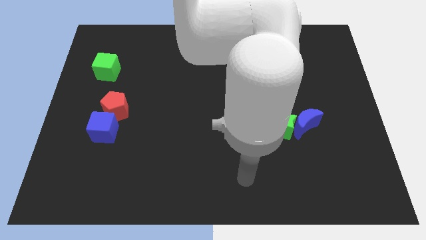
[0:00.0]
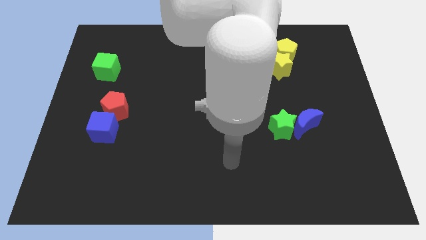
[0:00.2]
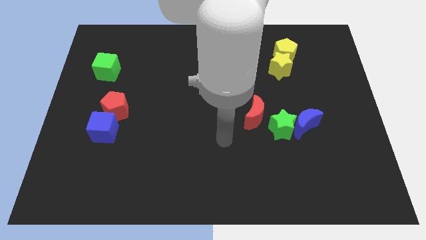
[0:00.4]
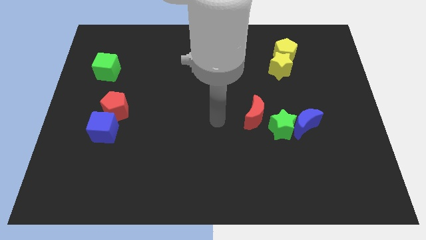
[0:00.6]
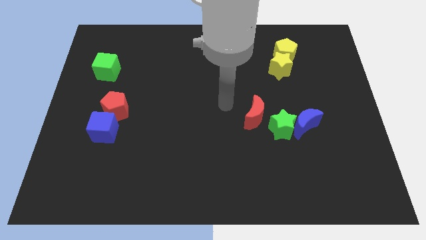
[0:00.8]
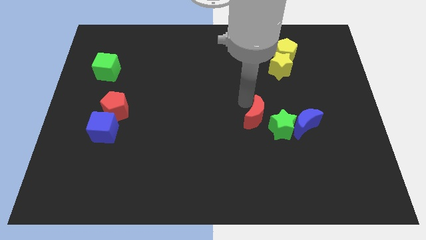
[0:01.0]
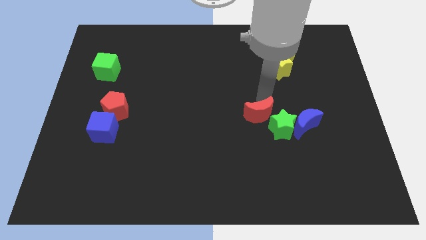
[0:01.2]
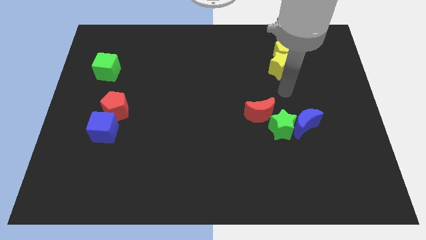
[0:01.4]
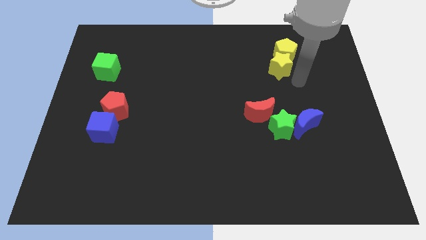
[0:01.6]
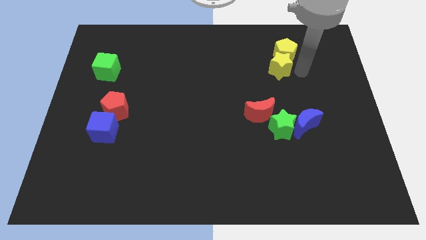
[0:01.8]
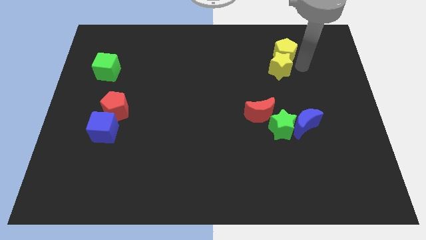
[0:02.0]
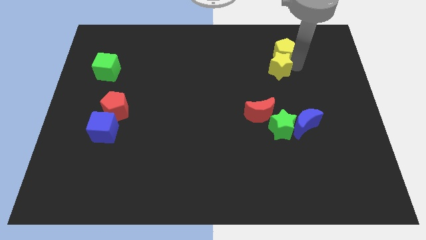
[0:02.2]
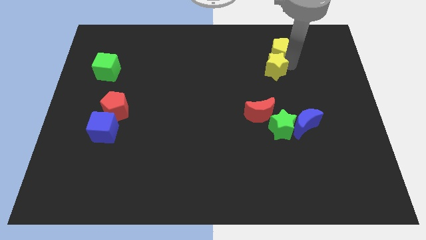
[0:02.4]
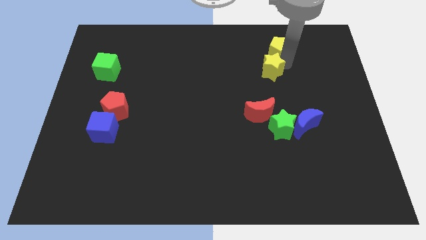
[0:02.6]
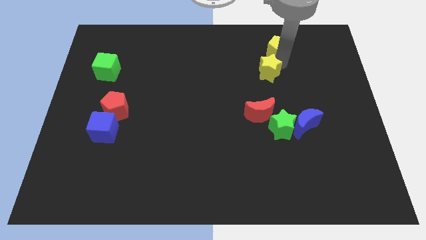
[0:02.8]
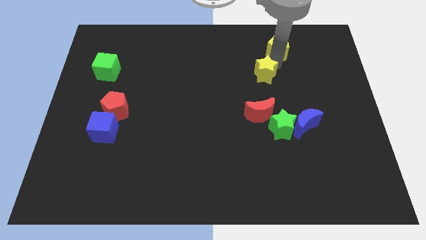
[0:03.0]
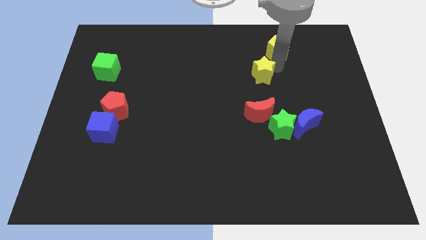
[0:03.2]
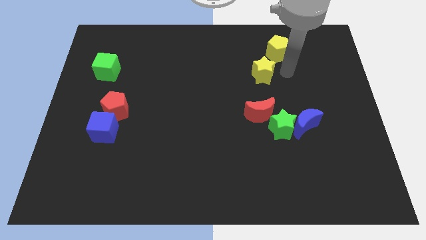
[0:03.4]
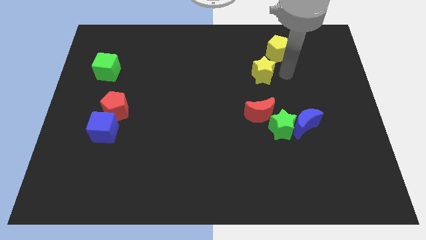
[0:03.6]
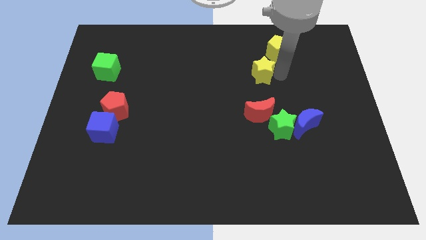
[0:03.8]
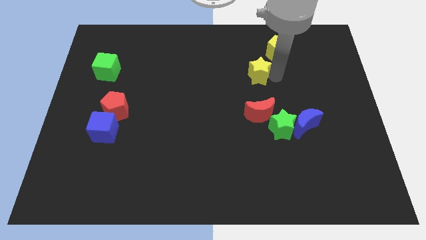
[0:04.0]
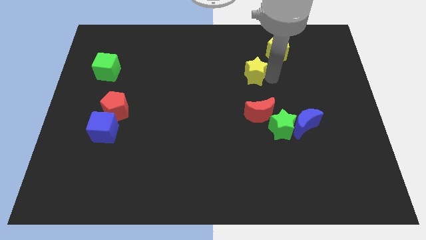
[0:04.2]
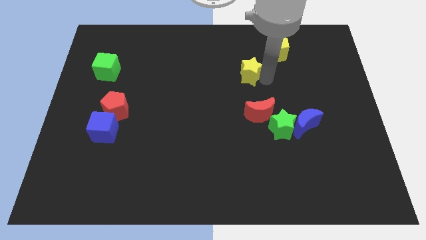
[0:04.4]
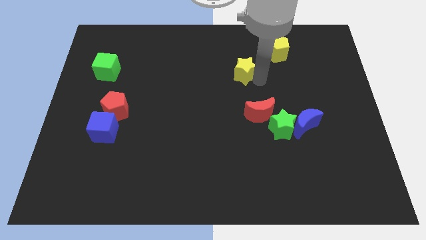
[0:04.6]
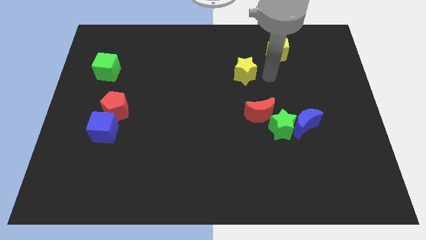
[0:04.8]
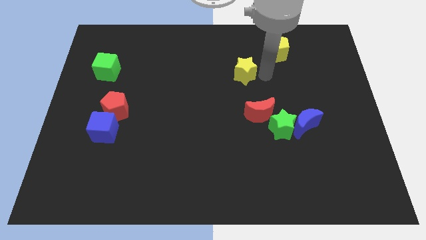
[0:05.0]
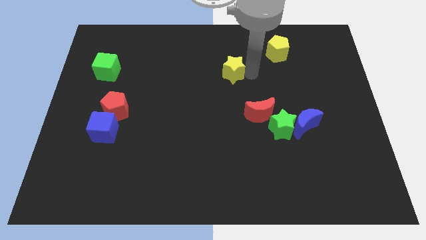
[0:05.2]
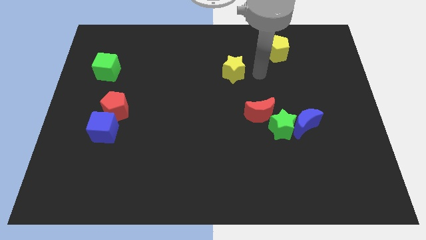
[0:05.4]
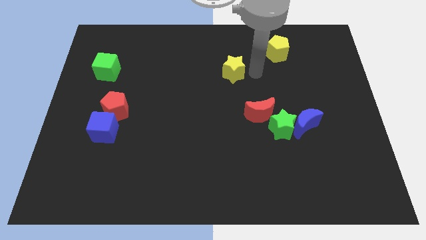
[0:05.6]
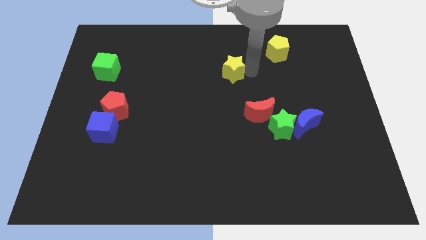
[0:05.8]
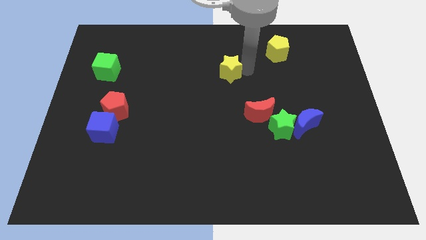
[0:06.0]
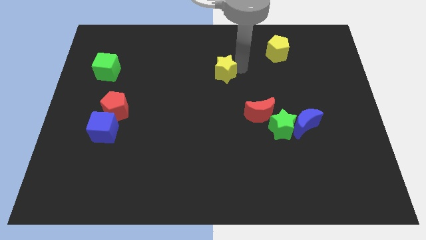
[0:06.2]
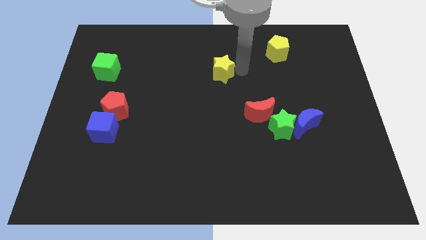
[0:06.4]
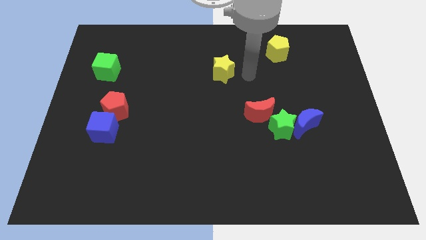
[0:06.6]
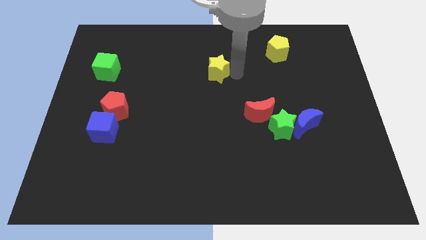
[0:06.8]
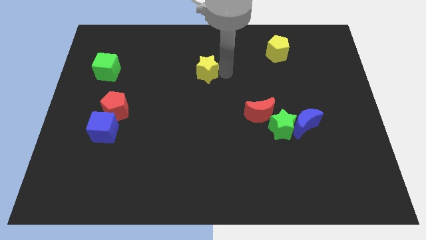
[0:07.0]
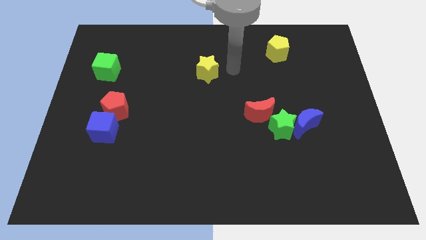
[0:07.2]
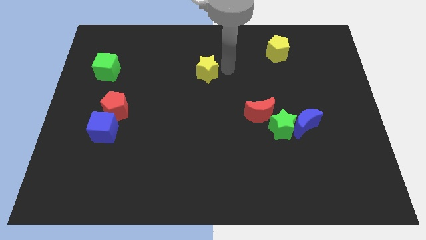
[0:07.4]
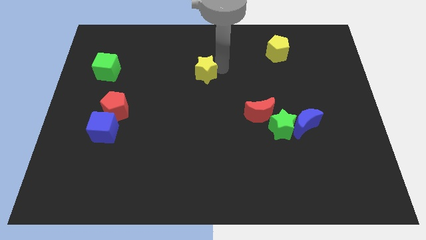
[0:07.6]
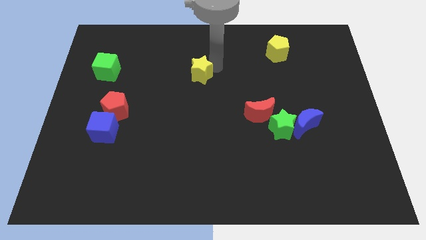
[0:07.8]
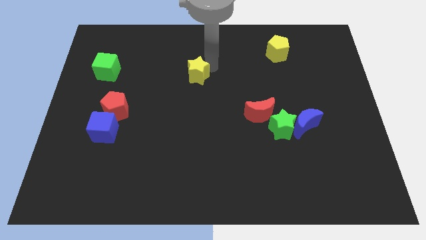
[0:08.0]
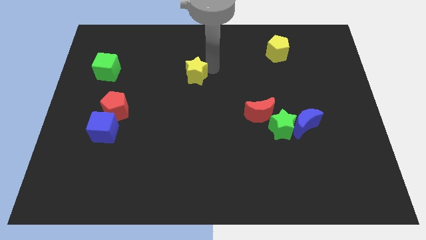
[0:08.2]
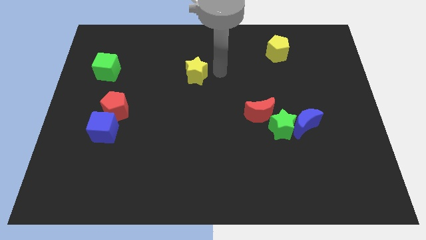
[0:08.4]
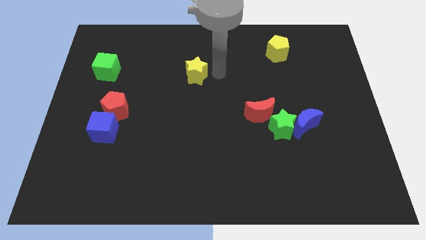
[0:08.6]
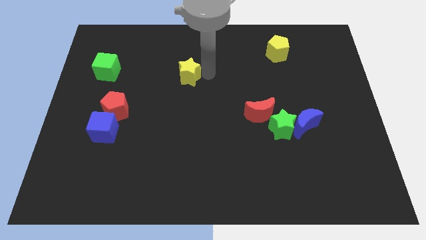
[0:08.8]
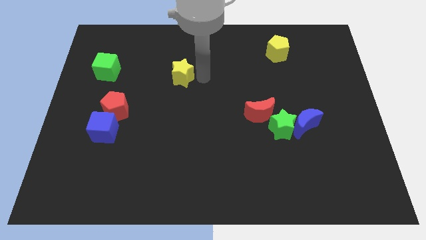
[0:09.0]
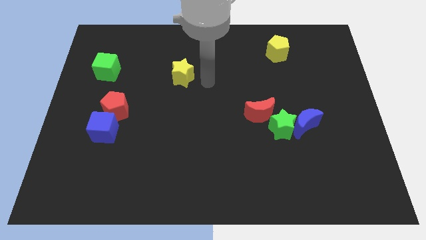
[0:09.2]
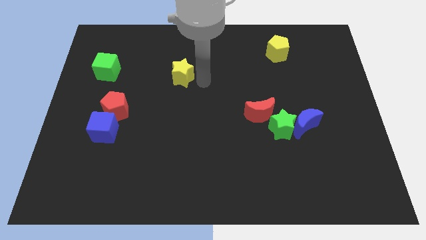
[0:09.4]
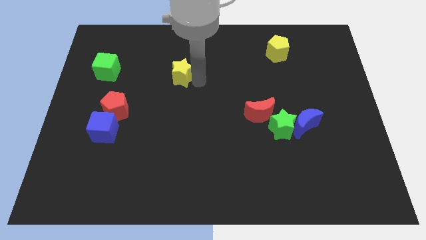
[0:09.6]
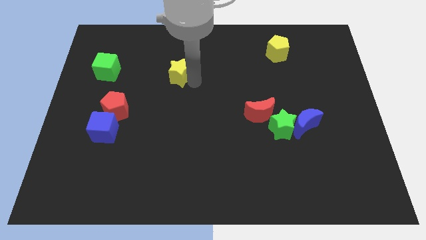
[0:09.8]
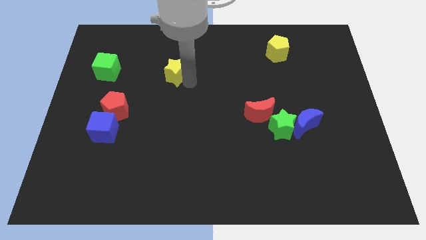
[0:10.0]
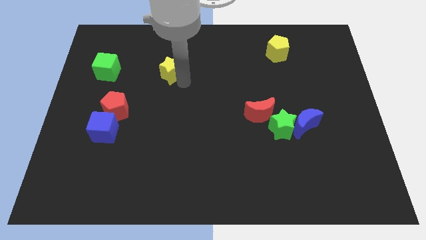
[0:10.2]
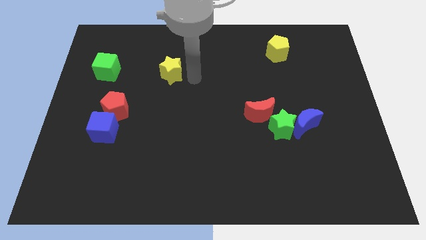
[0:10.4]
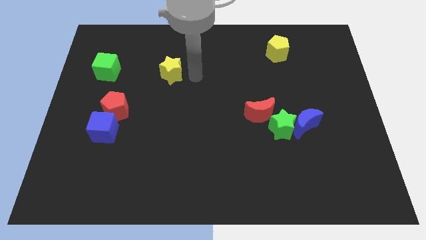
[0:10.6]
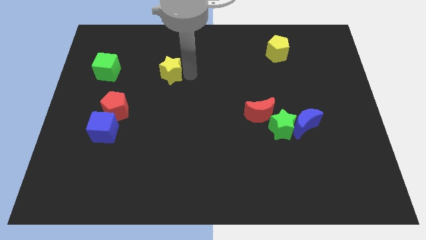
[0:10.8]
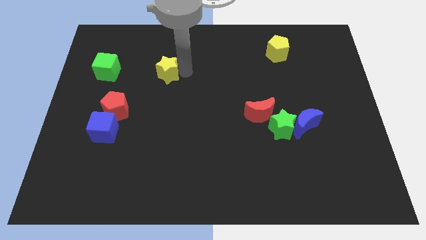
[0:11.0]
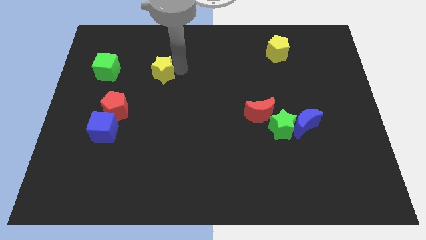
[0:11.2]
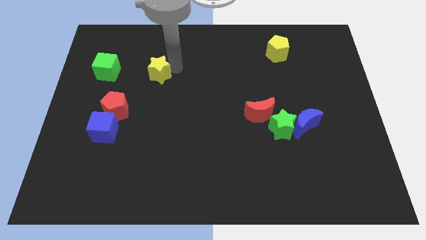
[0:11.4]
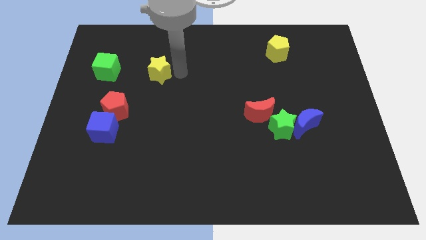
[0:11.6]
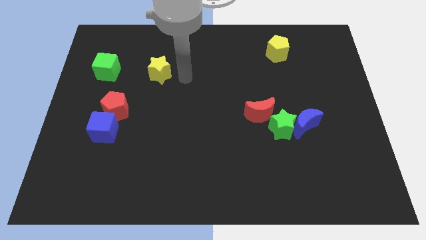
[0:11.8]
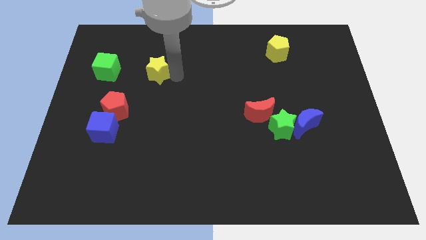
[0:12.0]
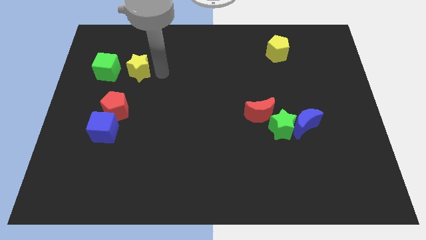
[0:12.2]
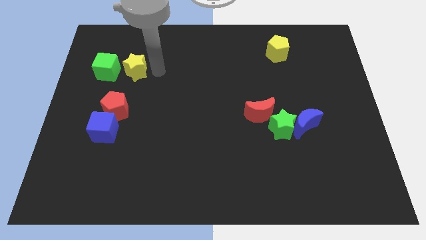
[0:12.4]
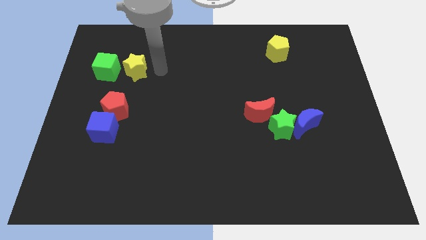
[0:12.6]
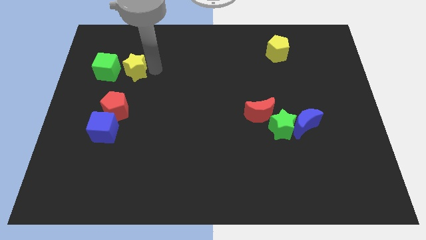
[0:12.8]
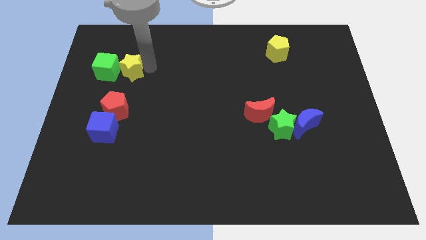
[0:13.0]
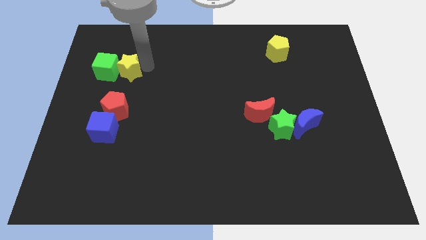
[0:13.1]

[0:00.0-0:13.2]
move the yellow star to the green cube

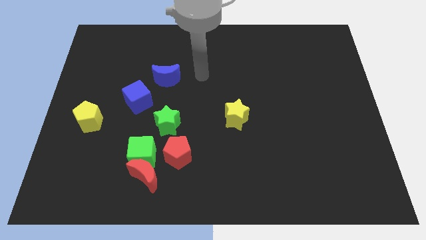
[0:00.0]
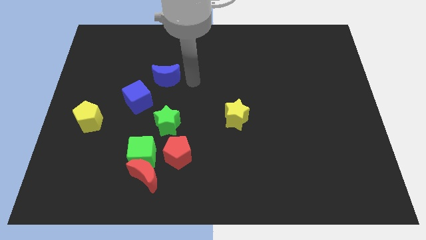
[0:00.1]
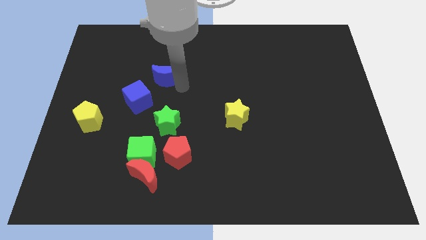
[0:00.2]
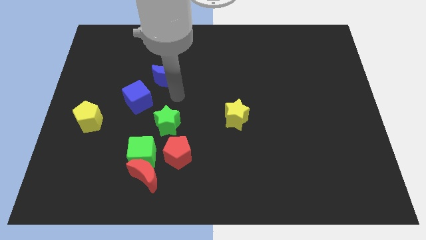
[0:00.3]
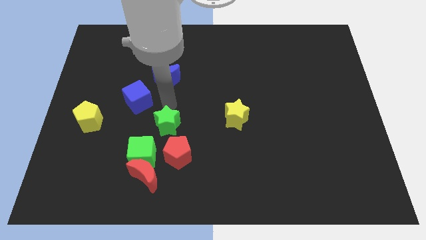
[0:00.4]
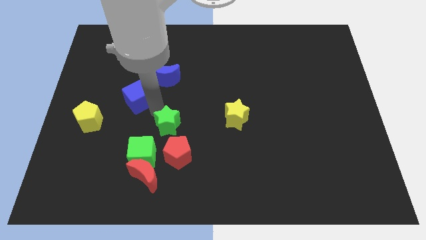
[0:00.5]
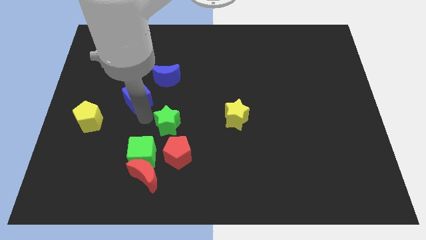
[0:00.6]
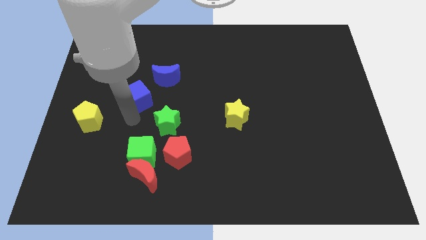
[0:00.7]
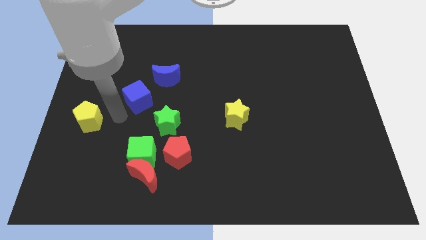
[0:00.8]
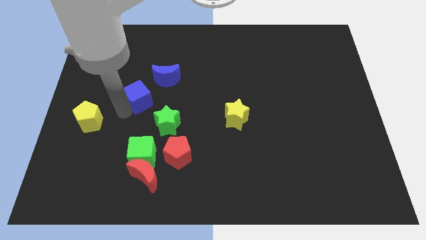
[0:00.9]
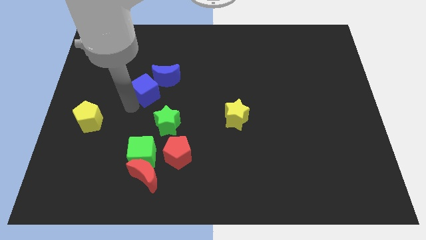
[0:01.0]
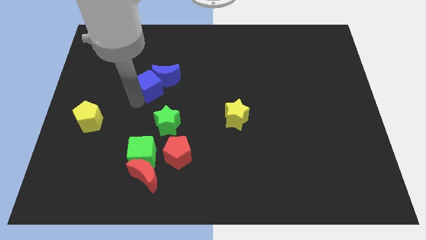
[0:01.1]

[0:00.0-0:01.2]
slide the blue cube towards the blue moon
